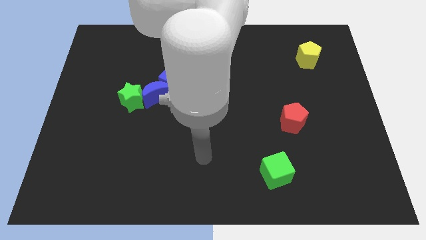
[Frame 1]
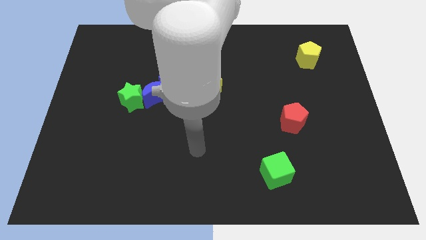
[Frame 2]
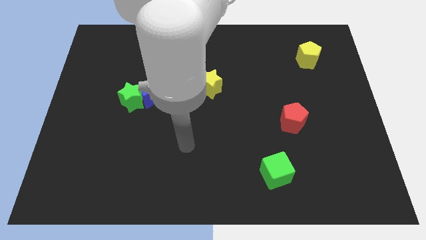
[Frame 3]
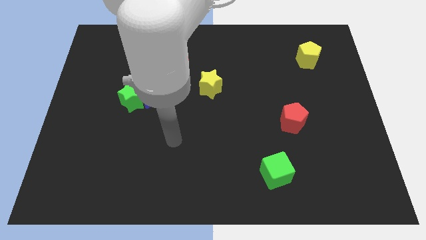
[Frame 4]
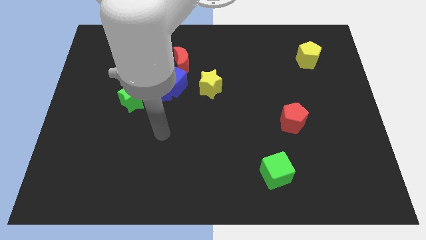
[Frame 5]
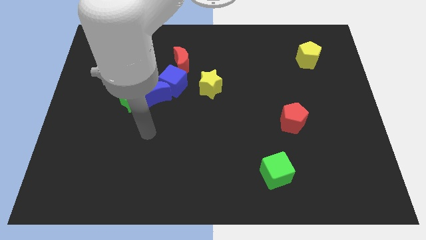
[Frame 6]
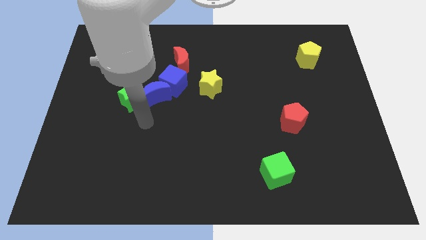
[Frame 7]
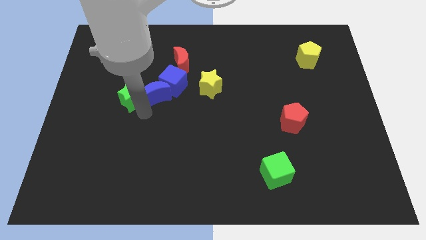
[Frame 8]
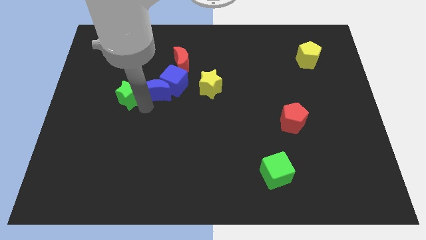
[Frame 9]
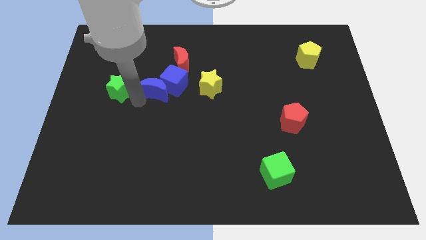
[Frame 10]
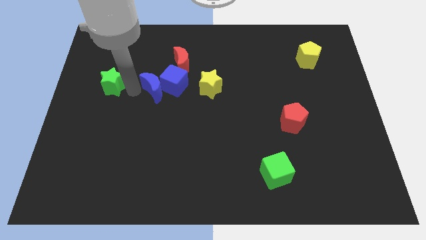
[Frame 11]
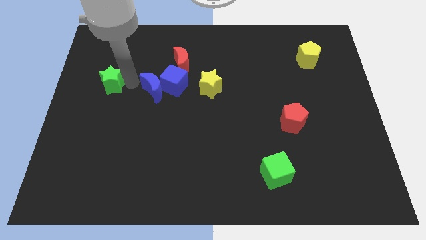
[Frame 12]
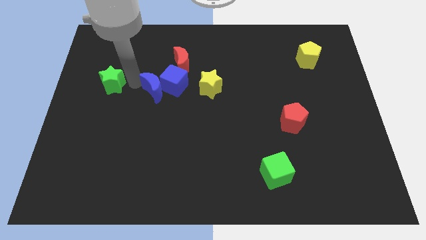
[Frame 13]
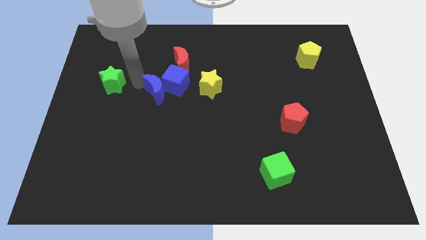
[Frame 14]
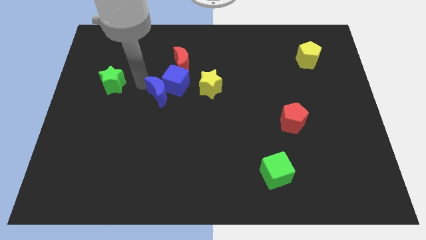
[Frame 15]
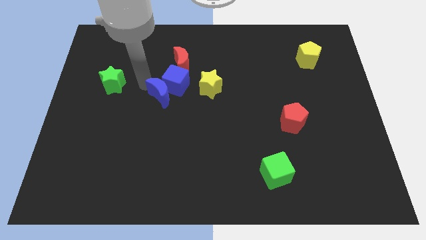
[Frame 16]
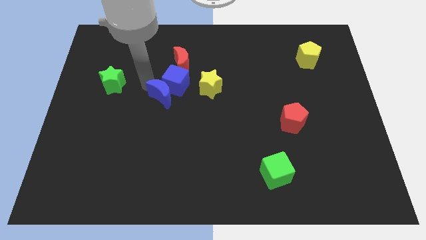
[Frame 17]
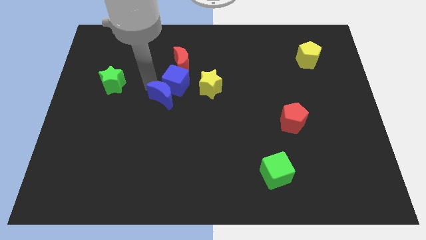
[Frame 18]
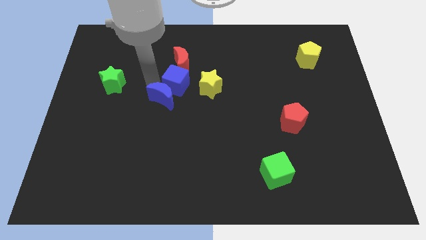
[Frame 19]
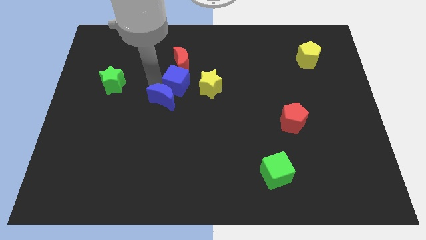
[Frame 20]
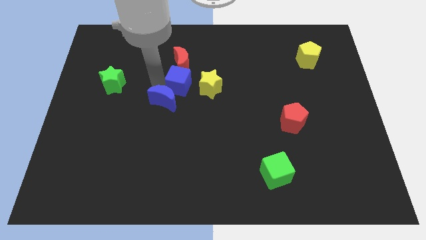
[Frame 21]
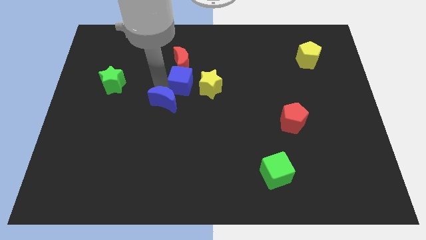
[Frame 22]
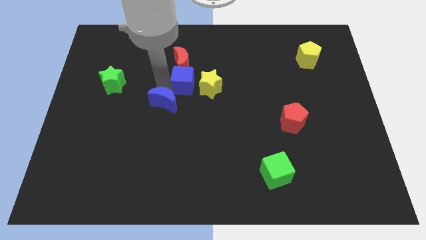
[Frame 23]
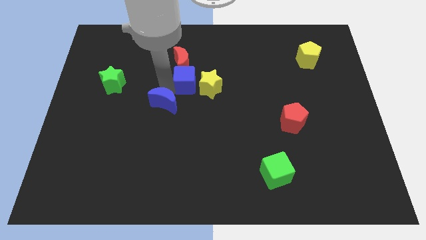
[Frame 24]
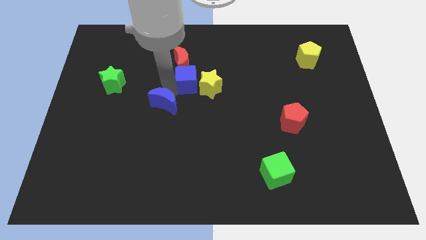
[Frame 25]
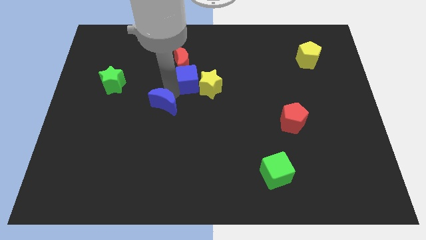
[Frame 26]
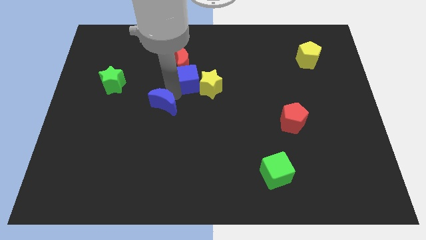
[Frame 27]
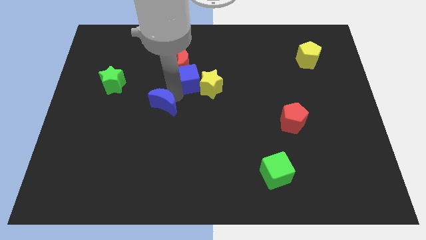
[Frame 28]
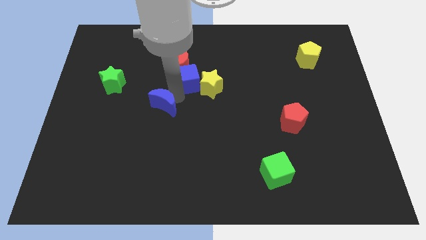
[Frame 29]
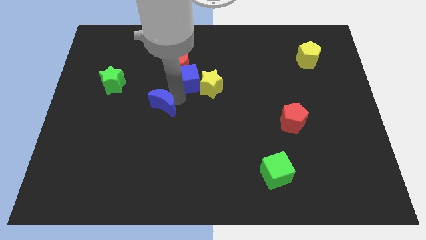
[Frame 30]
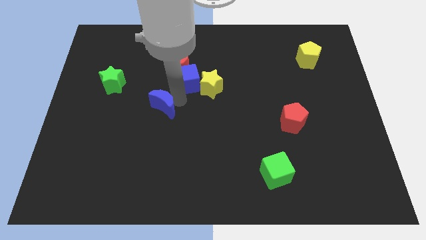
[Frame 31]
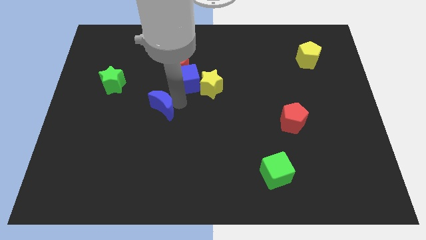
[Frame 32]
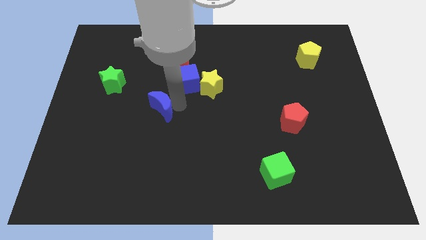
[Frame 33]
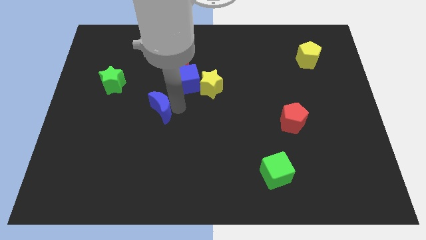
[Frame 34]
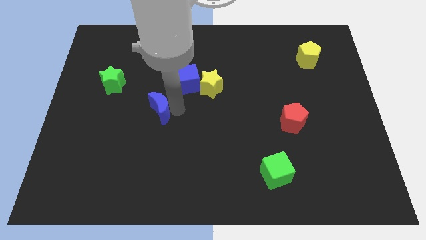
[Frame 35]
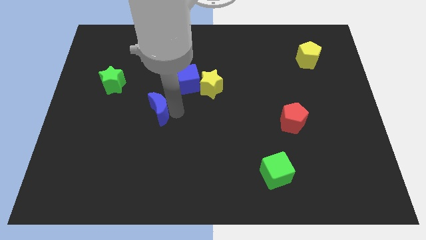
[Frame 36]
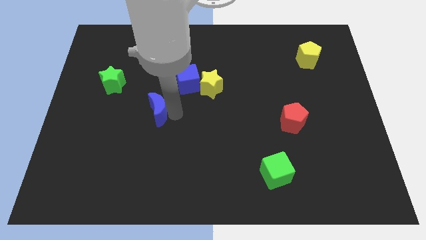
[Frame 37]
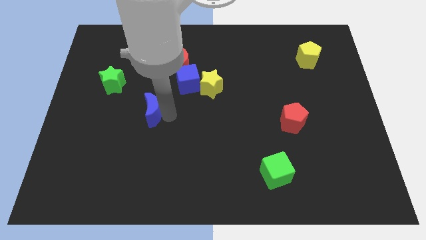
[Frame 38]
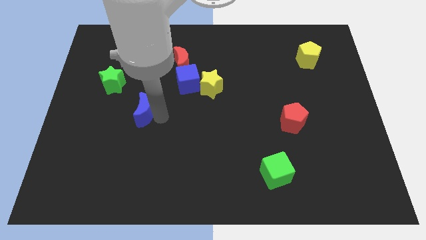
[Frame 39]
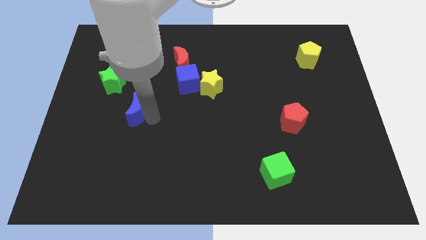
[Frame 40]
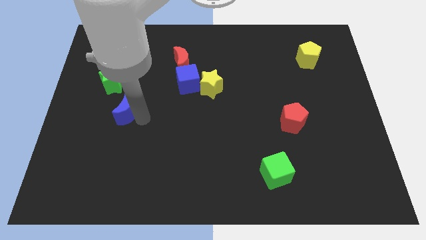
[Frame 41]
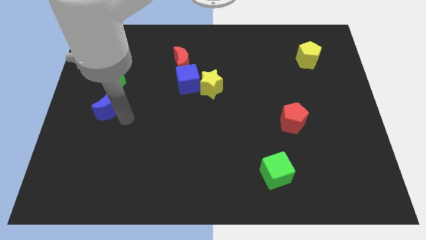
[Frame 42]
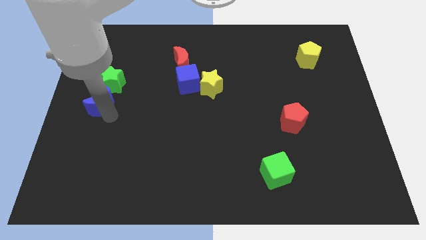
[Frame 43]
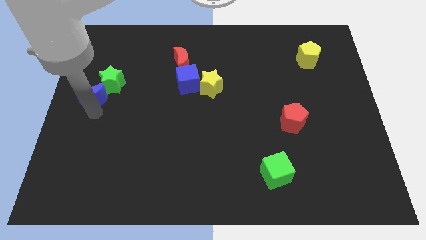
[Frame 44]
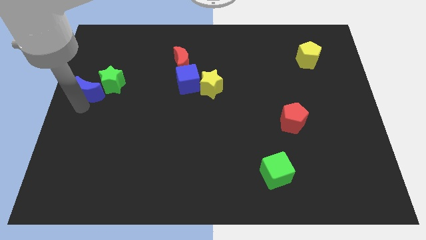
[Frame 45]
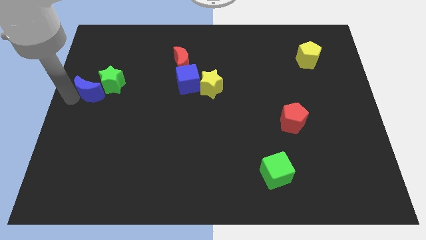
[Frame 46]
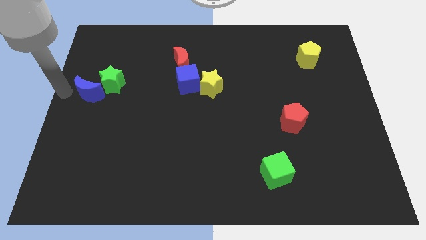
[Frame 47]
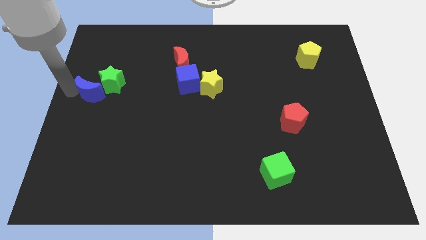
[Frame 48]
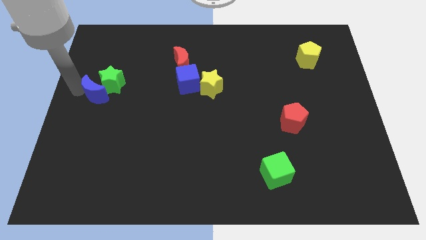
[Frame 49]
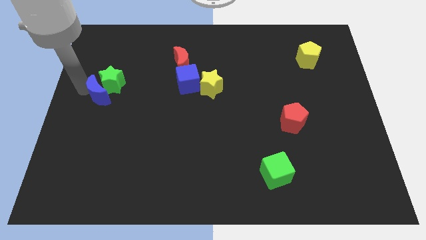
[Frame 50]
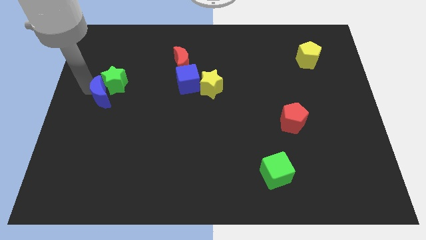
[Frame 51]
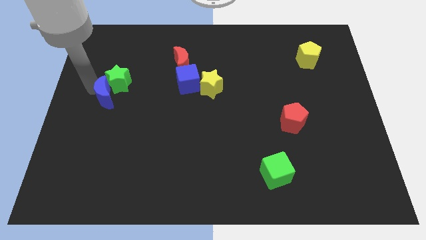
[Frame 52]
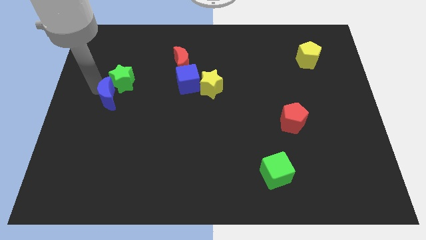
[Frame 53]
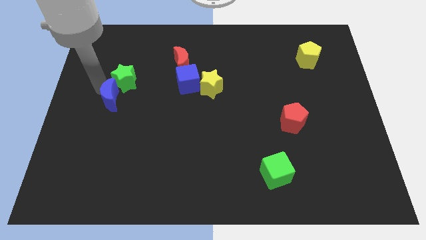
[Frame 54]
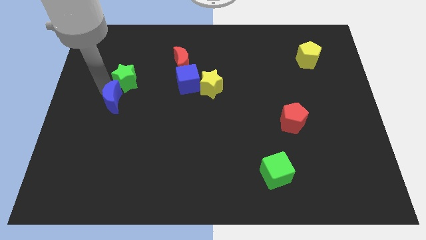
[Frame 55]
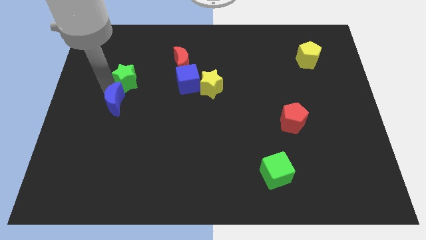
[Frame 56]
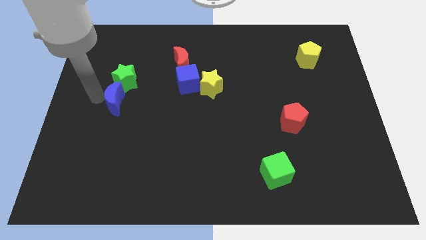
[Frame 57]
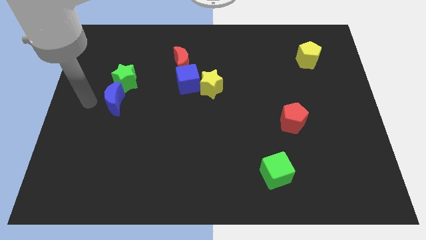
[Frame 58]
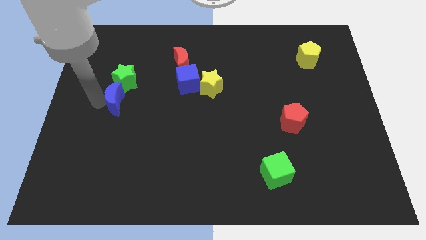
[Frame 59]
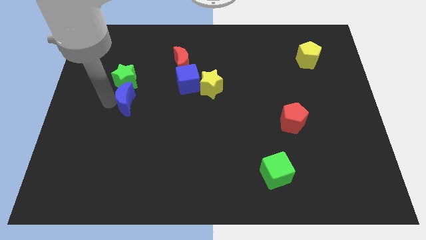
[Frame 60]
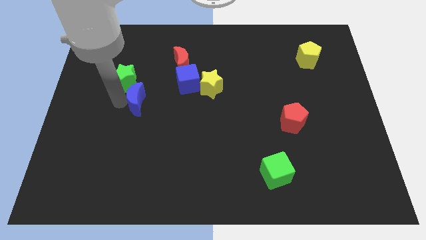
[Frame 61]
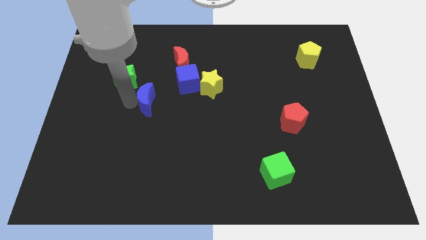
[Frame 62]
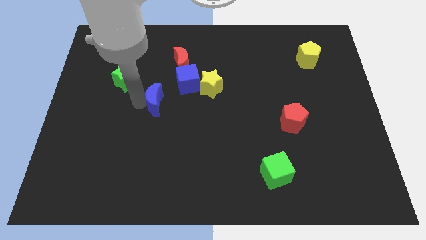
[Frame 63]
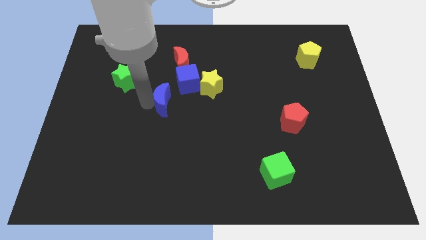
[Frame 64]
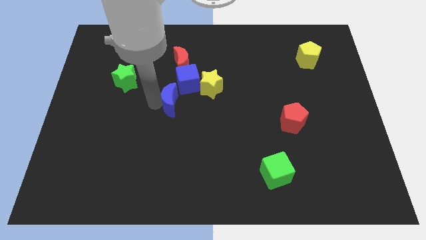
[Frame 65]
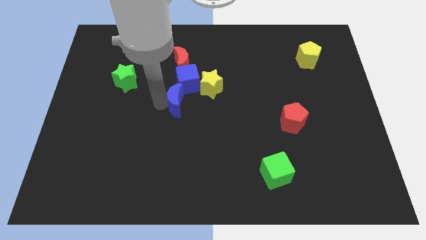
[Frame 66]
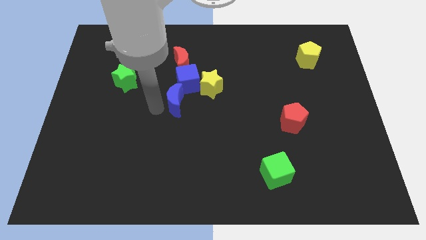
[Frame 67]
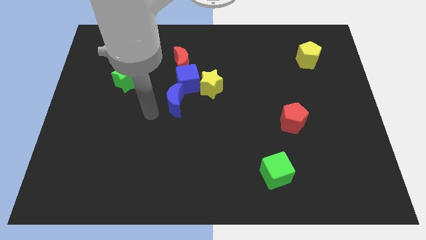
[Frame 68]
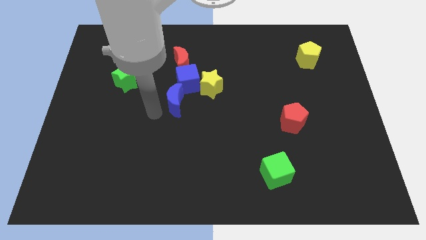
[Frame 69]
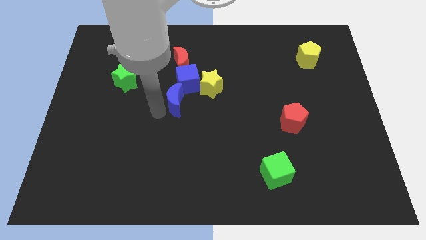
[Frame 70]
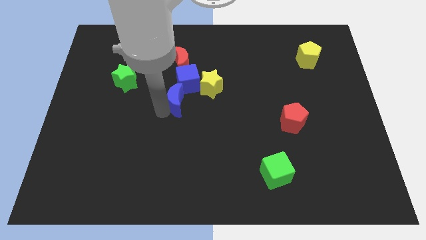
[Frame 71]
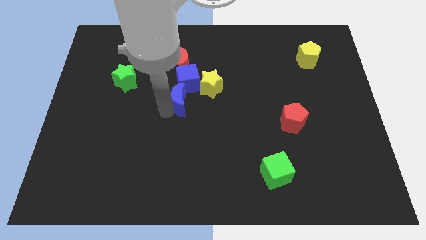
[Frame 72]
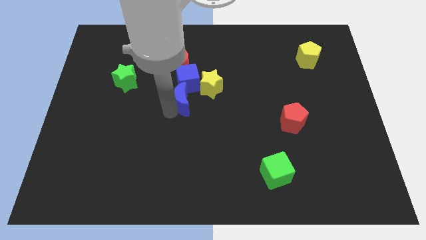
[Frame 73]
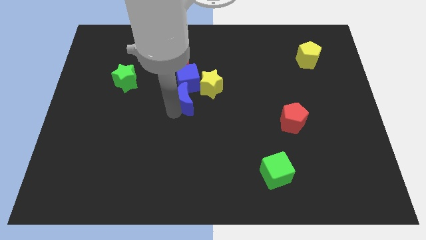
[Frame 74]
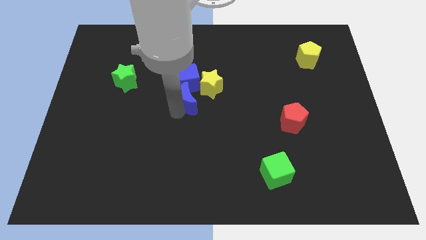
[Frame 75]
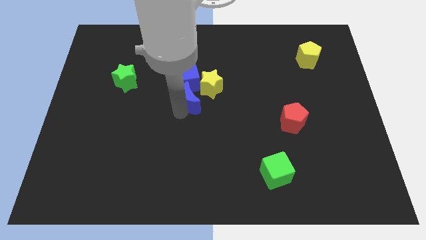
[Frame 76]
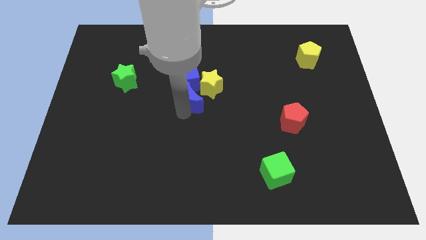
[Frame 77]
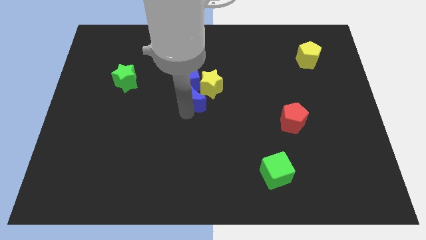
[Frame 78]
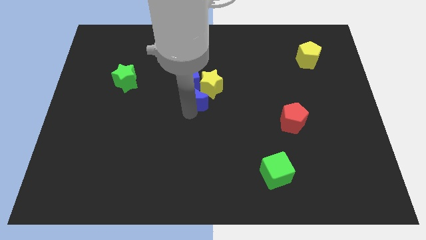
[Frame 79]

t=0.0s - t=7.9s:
push the blue moon to the yellow star
